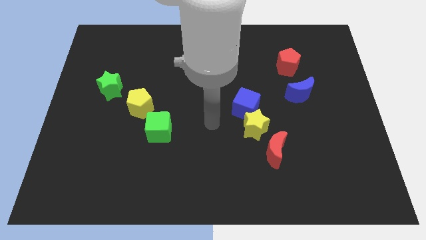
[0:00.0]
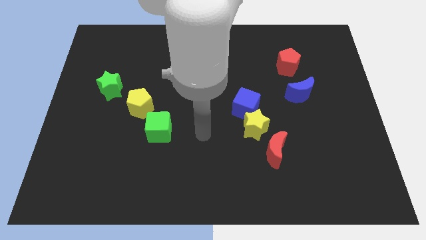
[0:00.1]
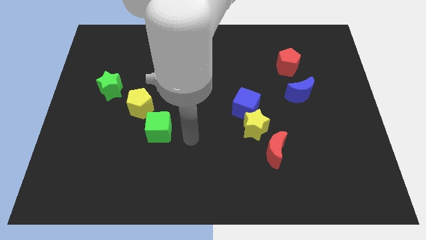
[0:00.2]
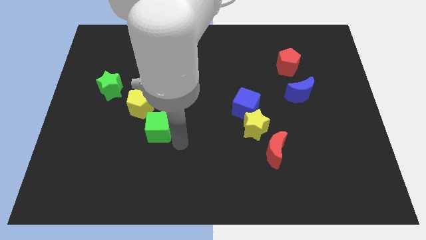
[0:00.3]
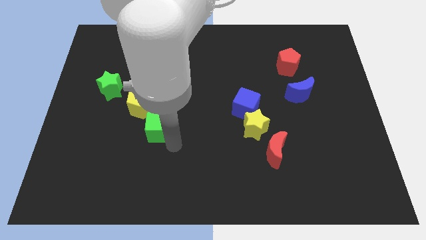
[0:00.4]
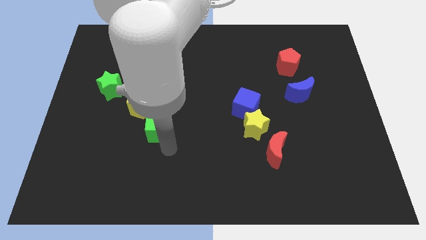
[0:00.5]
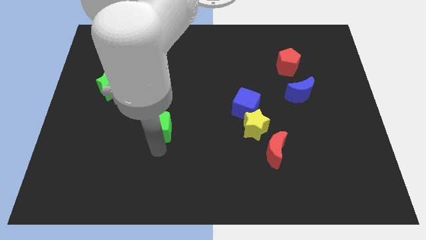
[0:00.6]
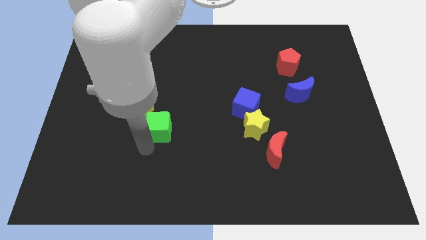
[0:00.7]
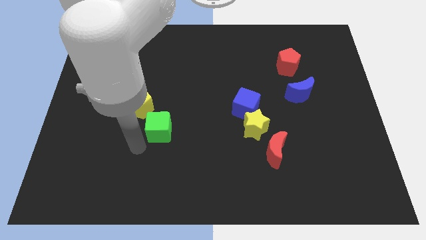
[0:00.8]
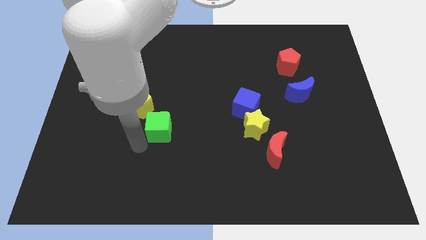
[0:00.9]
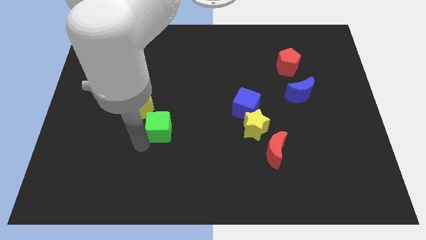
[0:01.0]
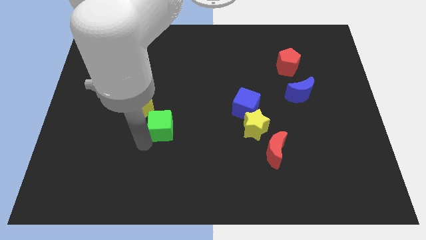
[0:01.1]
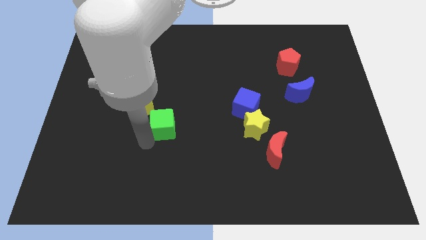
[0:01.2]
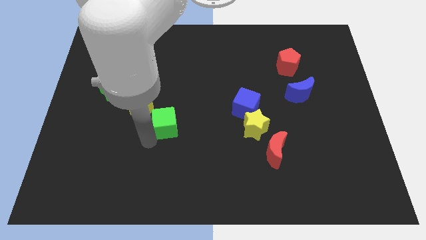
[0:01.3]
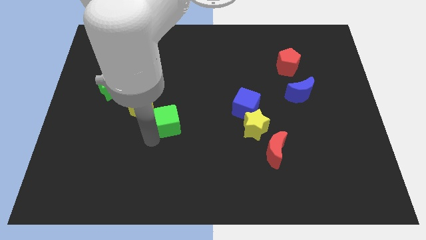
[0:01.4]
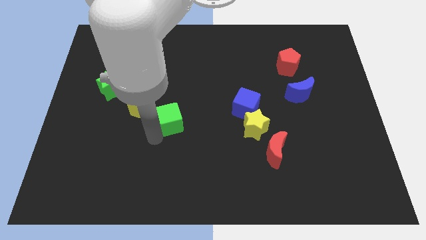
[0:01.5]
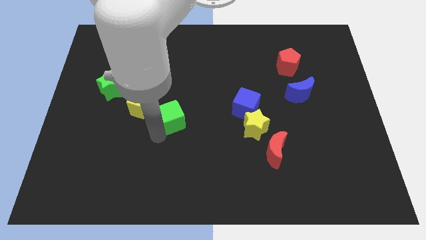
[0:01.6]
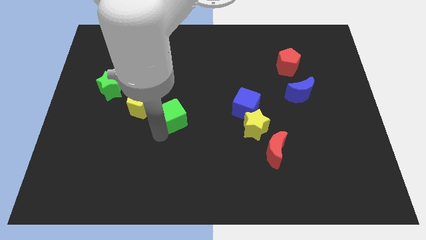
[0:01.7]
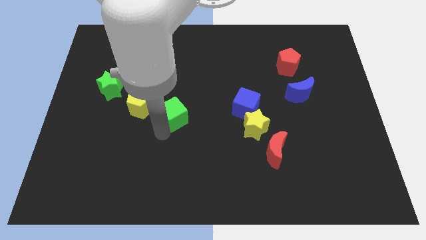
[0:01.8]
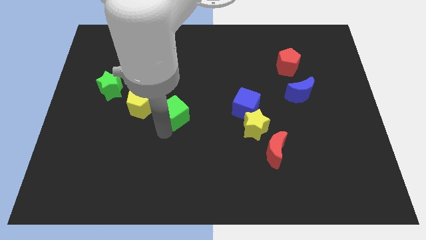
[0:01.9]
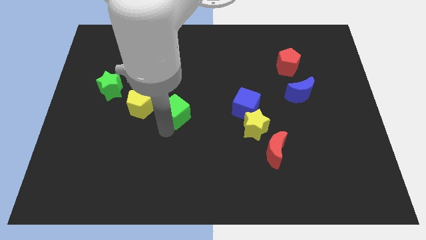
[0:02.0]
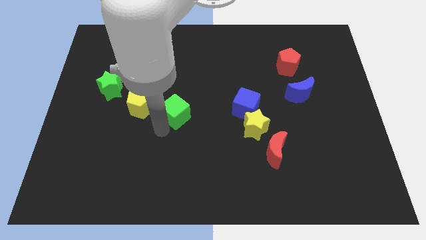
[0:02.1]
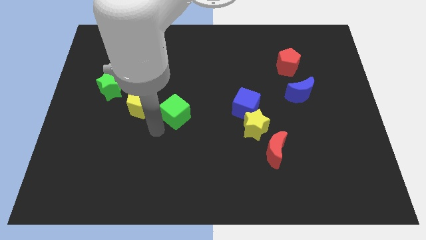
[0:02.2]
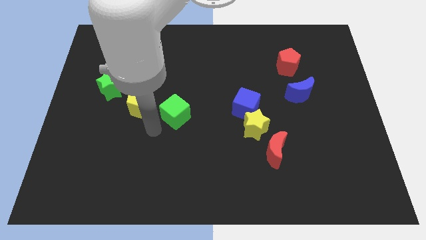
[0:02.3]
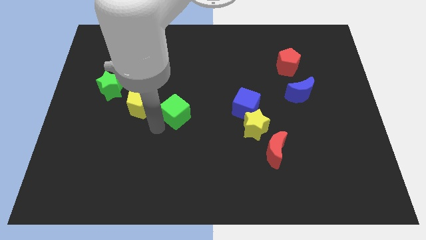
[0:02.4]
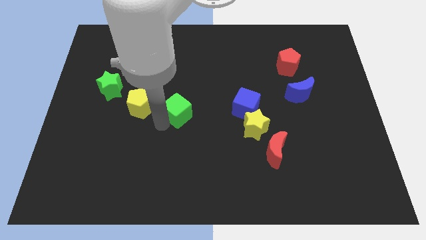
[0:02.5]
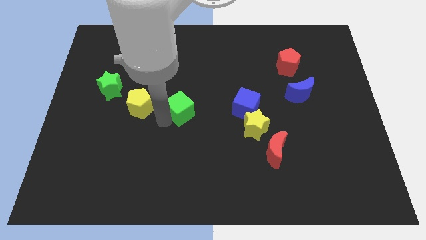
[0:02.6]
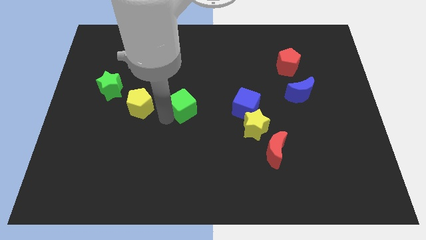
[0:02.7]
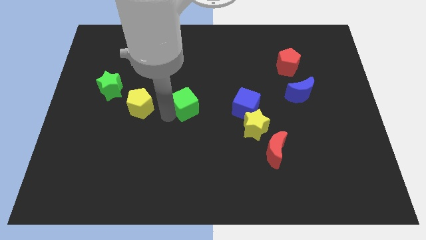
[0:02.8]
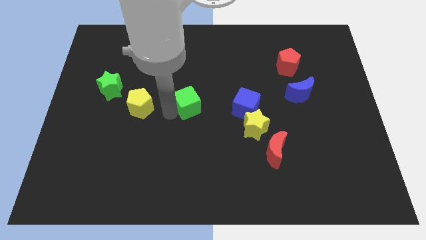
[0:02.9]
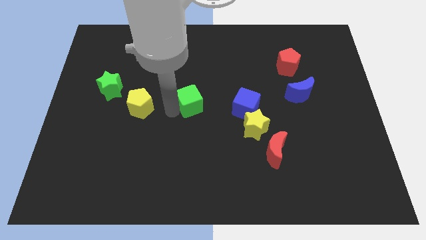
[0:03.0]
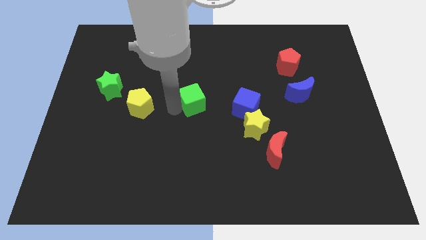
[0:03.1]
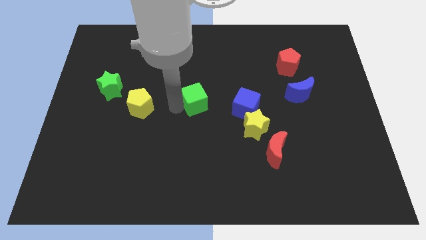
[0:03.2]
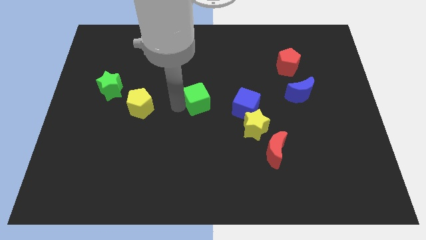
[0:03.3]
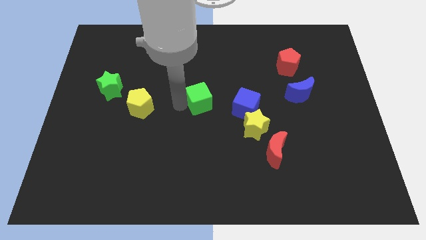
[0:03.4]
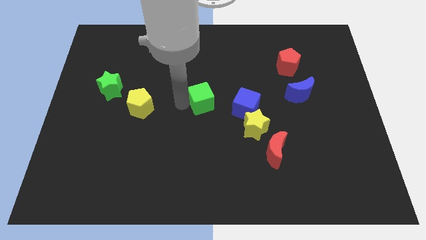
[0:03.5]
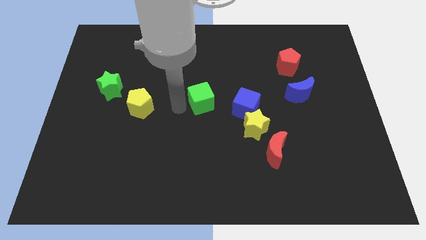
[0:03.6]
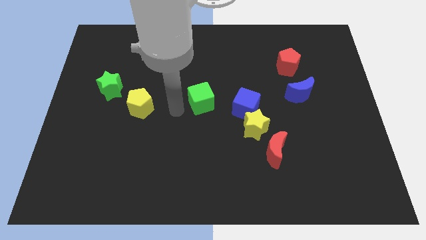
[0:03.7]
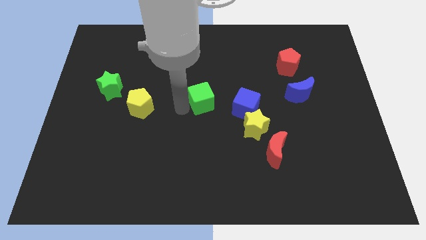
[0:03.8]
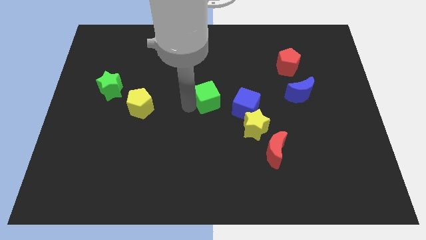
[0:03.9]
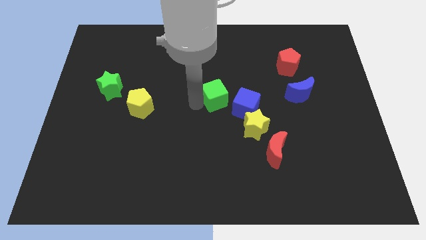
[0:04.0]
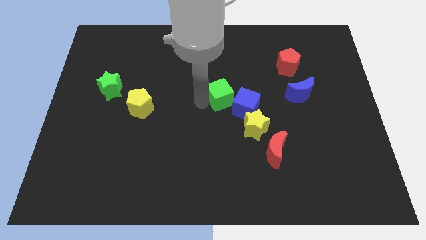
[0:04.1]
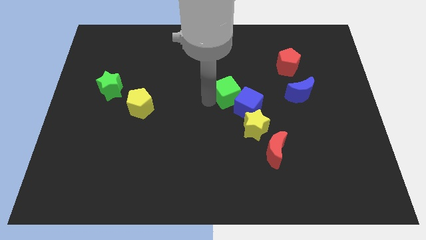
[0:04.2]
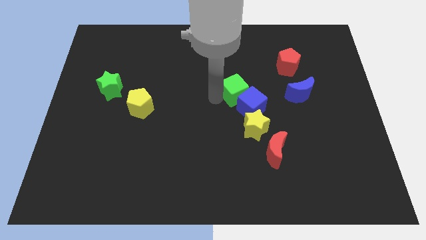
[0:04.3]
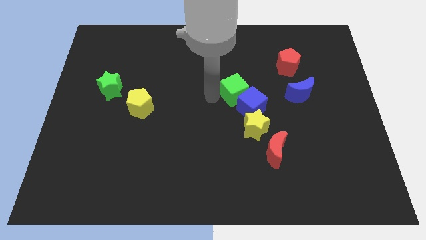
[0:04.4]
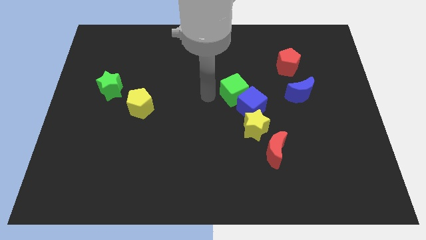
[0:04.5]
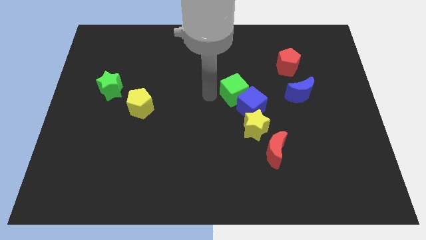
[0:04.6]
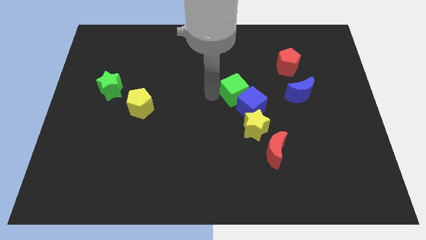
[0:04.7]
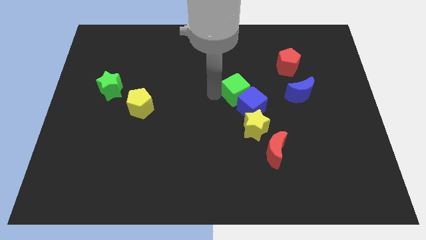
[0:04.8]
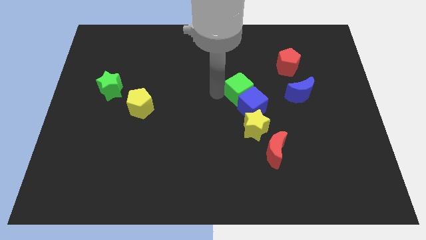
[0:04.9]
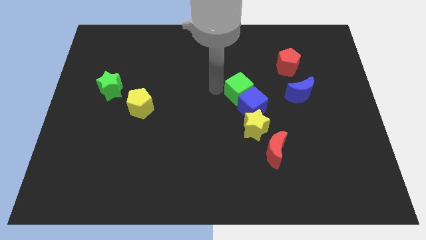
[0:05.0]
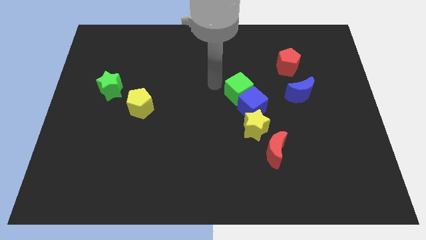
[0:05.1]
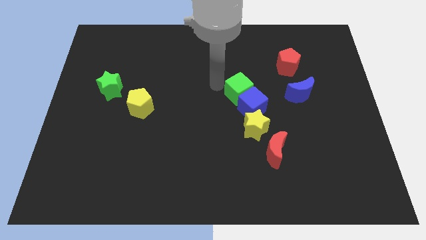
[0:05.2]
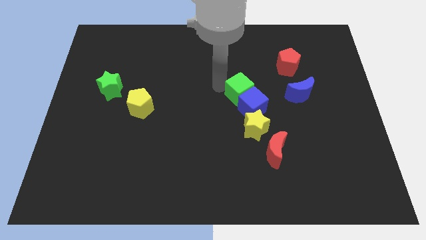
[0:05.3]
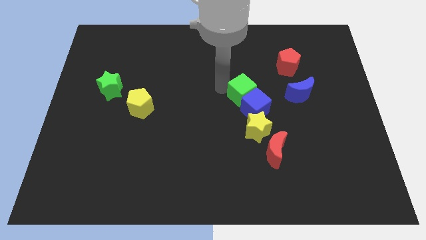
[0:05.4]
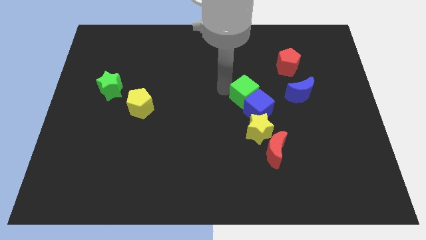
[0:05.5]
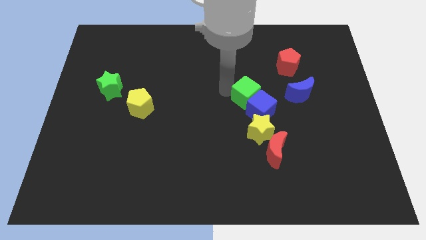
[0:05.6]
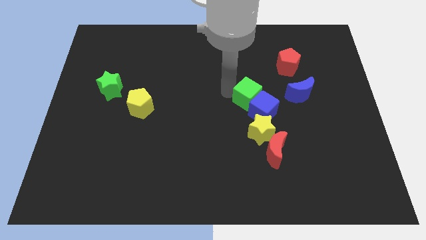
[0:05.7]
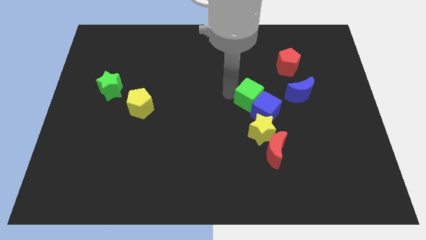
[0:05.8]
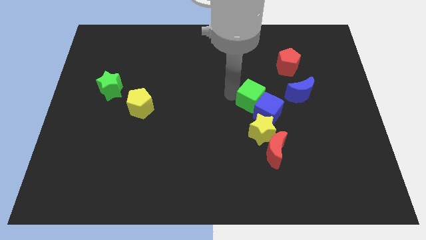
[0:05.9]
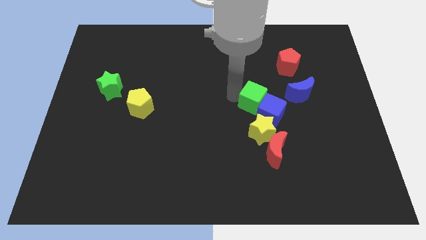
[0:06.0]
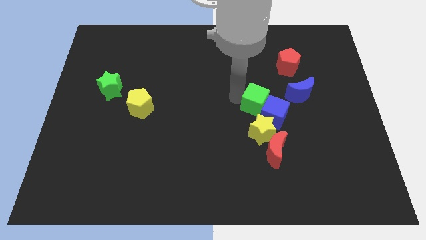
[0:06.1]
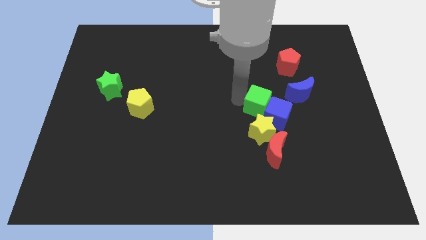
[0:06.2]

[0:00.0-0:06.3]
move the green cube right

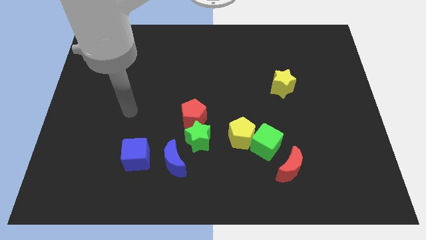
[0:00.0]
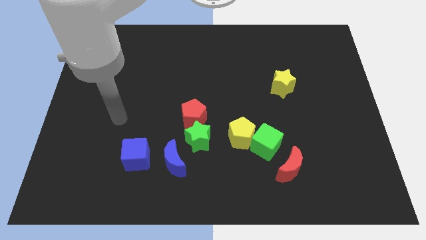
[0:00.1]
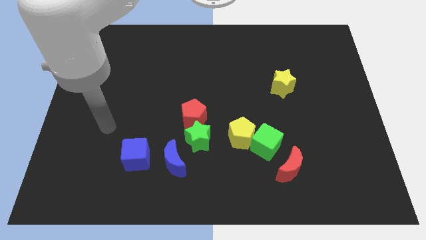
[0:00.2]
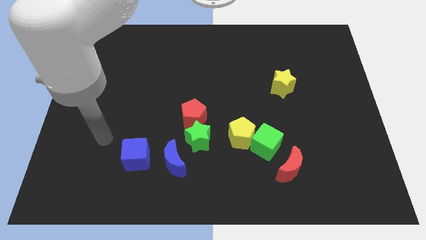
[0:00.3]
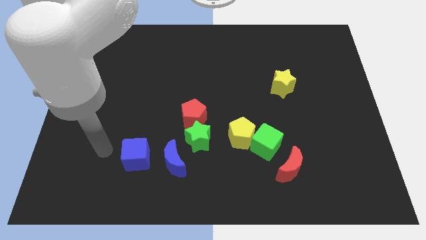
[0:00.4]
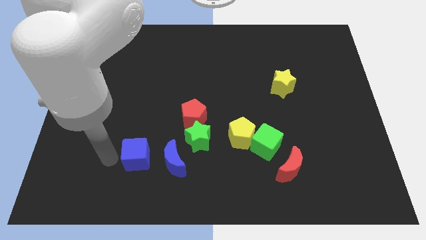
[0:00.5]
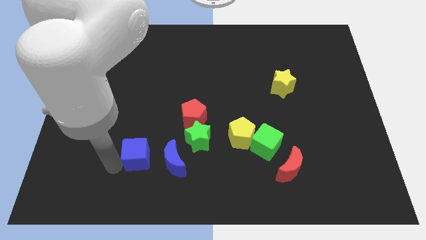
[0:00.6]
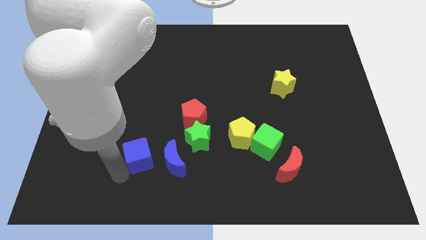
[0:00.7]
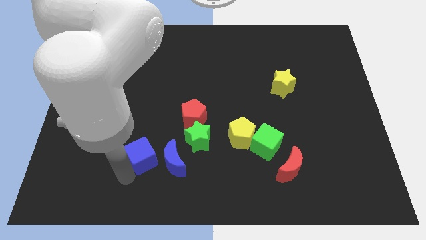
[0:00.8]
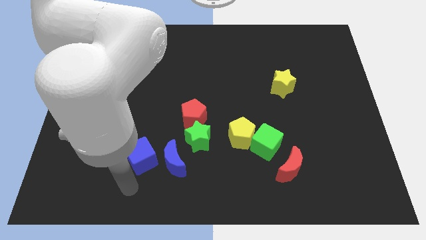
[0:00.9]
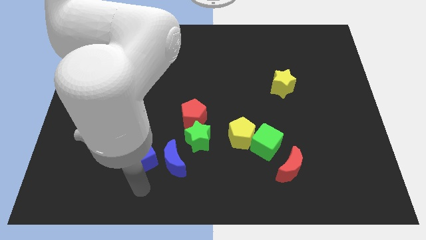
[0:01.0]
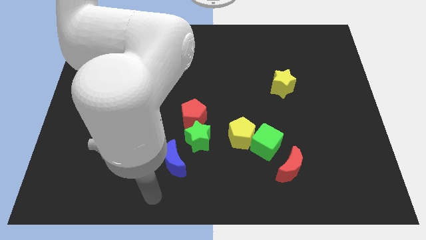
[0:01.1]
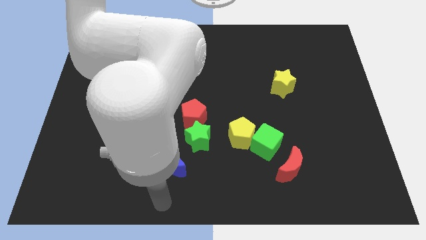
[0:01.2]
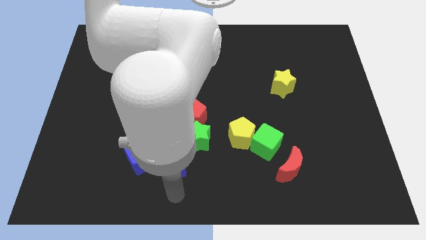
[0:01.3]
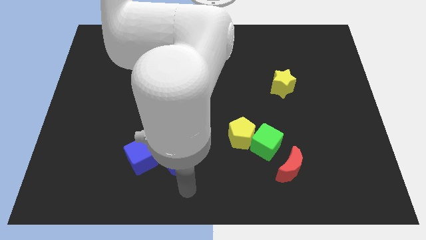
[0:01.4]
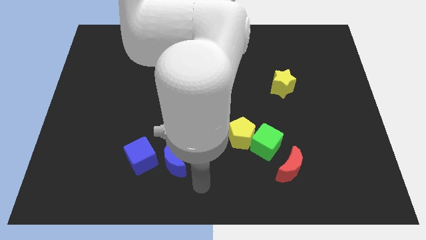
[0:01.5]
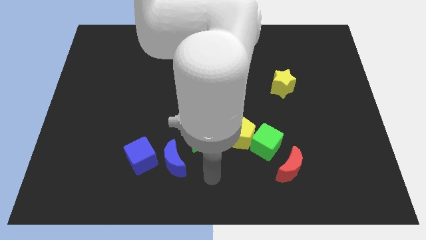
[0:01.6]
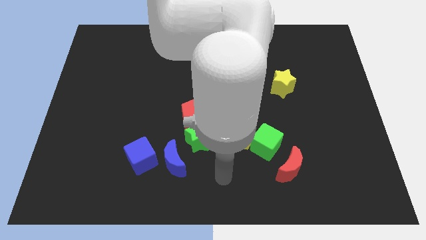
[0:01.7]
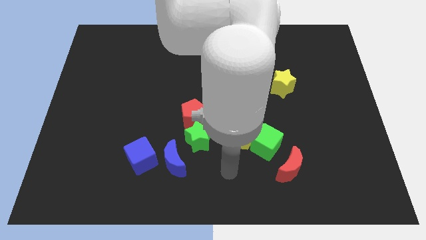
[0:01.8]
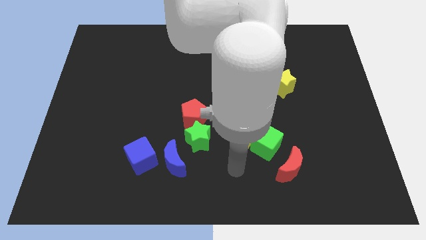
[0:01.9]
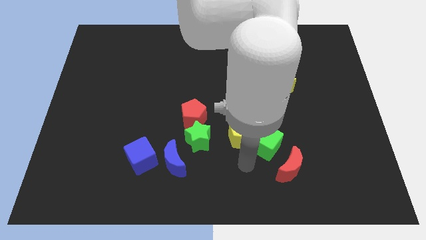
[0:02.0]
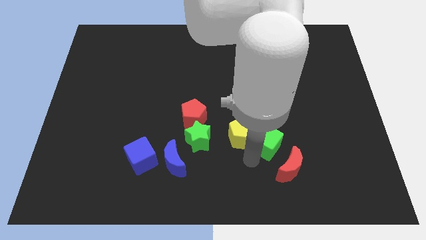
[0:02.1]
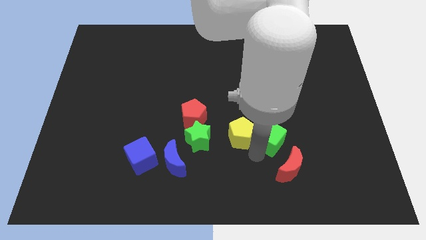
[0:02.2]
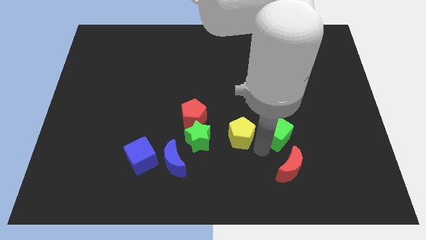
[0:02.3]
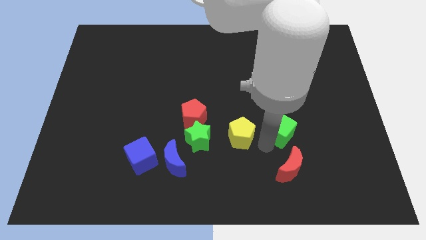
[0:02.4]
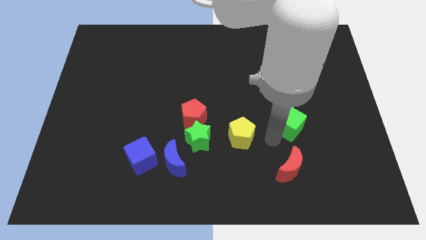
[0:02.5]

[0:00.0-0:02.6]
slightly push the green cube up and then to the right
